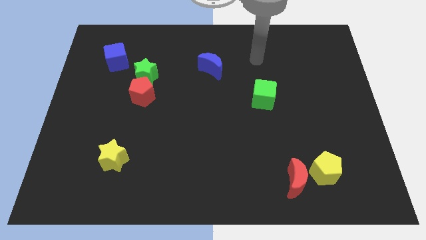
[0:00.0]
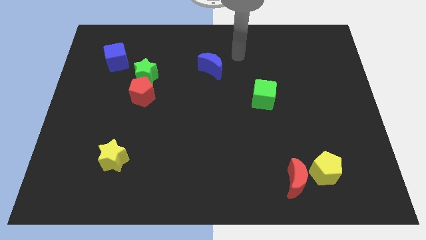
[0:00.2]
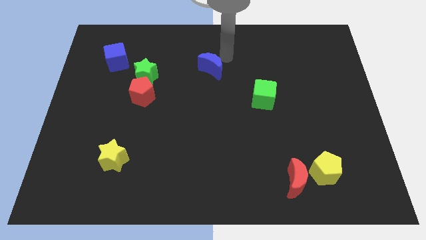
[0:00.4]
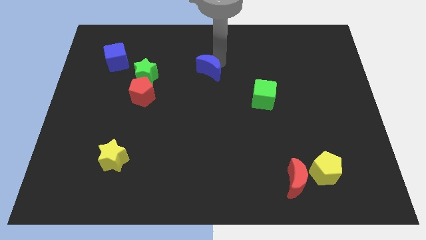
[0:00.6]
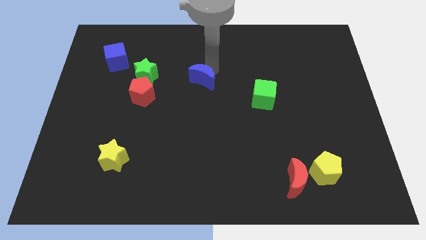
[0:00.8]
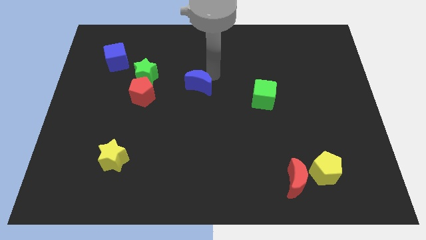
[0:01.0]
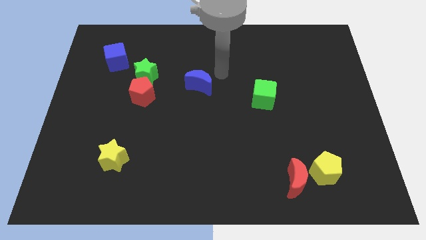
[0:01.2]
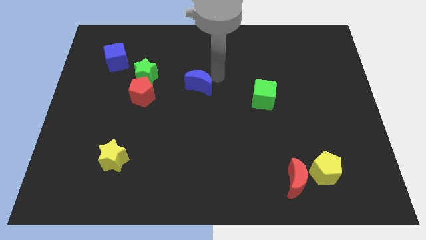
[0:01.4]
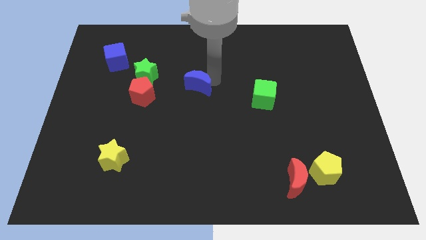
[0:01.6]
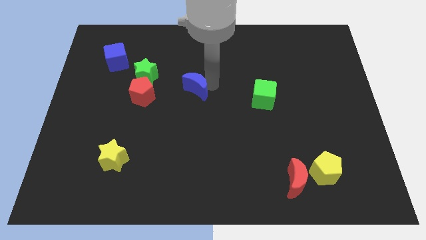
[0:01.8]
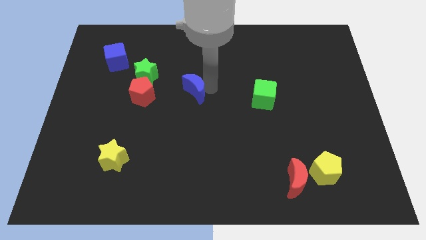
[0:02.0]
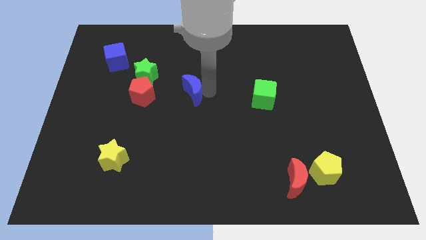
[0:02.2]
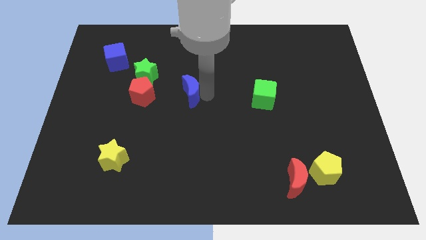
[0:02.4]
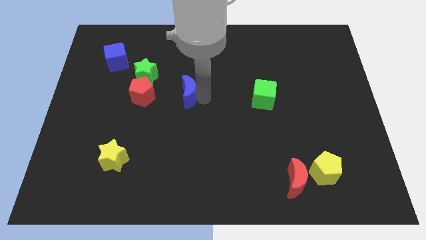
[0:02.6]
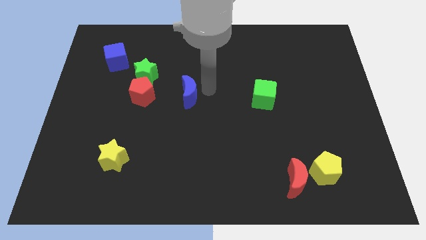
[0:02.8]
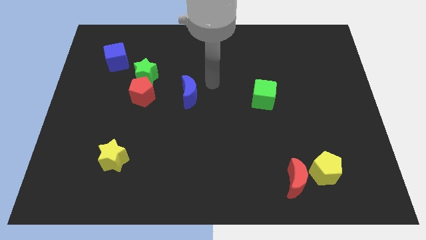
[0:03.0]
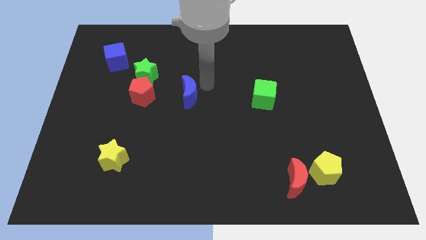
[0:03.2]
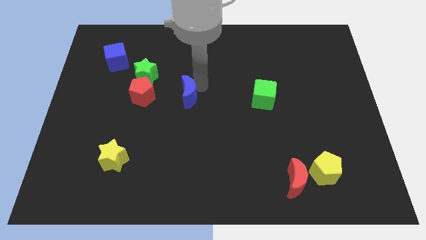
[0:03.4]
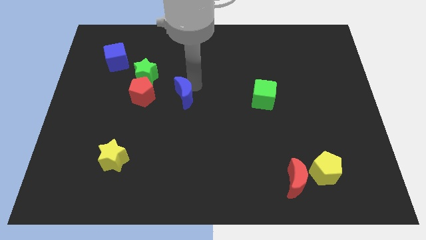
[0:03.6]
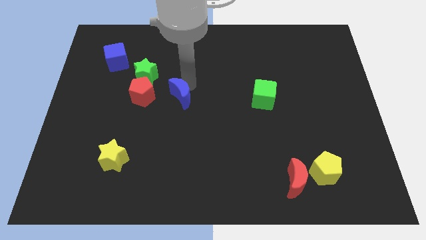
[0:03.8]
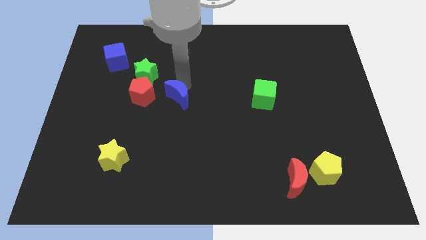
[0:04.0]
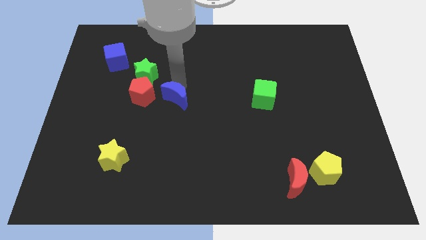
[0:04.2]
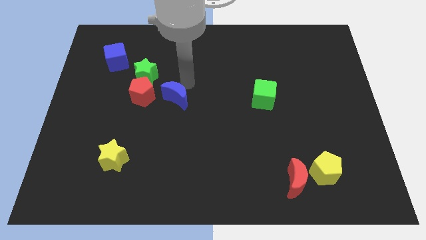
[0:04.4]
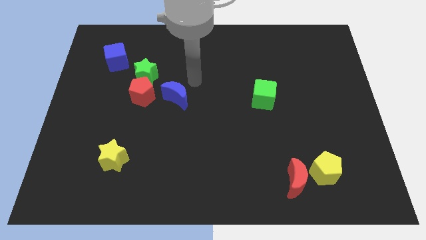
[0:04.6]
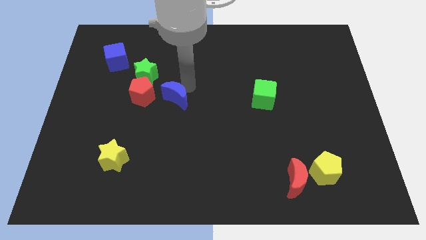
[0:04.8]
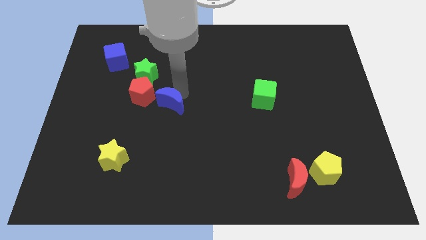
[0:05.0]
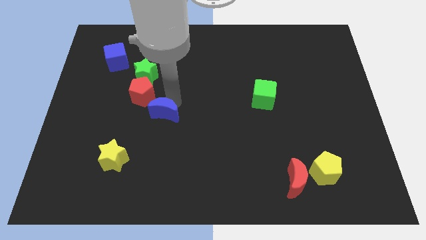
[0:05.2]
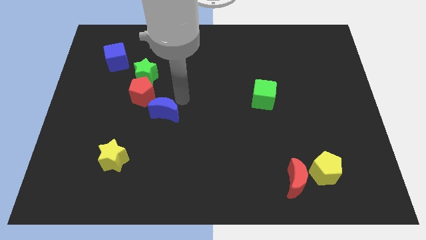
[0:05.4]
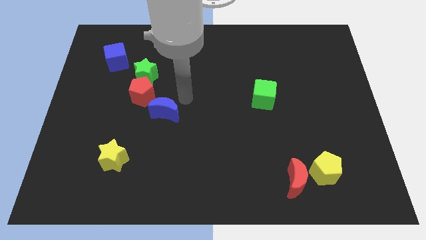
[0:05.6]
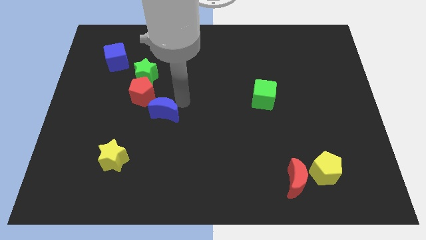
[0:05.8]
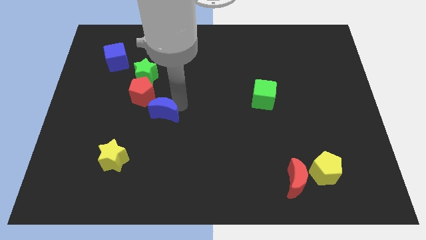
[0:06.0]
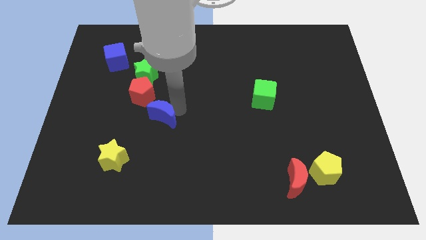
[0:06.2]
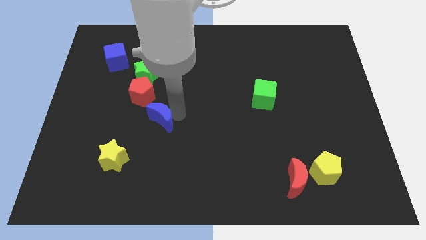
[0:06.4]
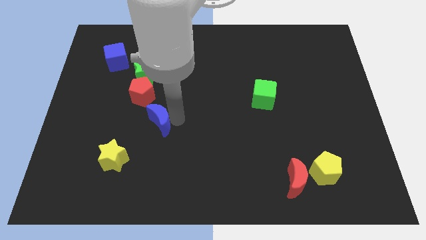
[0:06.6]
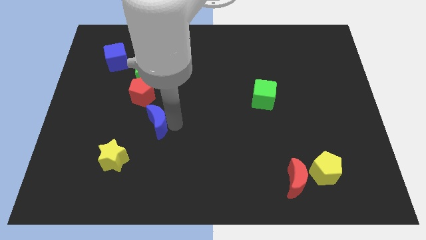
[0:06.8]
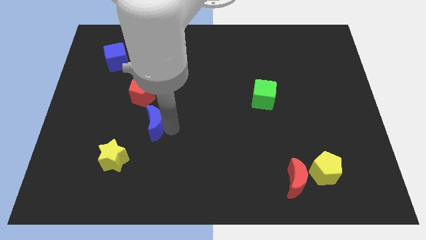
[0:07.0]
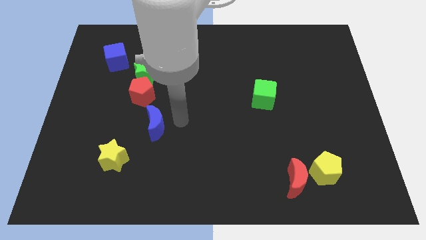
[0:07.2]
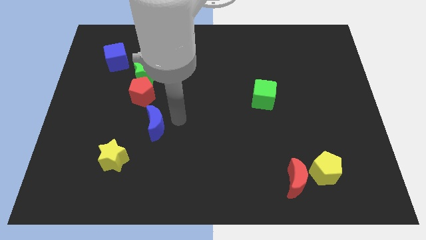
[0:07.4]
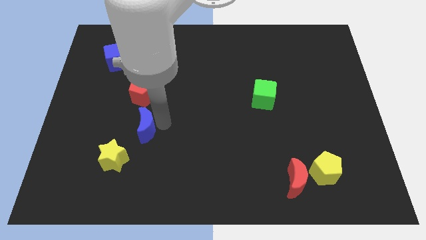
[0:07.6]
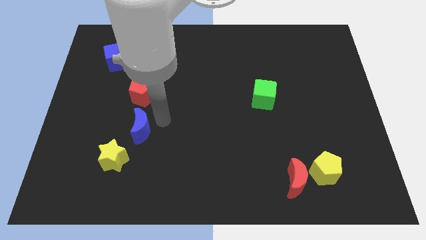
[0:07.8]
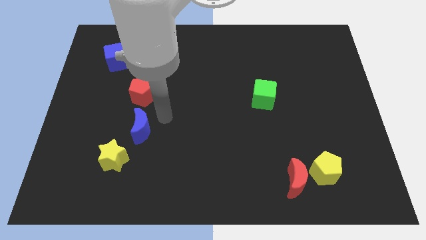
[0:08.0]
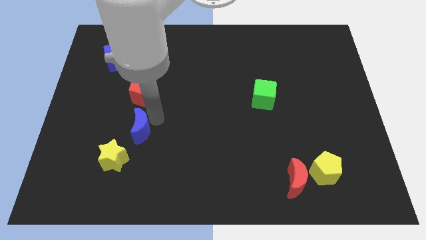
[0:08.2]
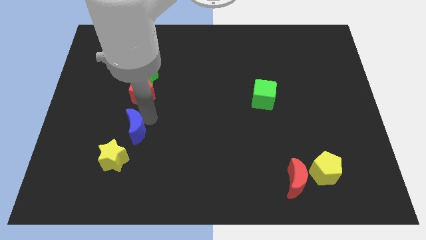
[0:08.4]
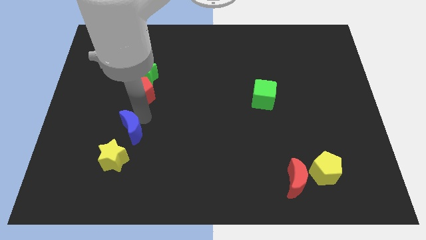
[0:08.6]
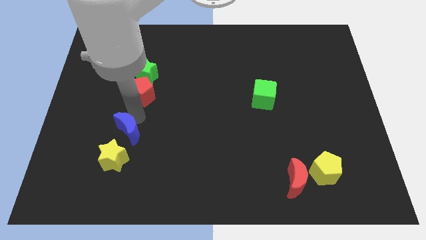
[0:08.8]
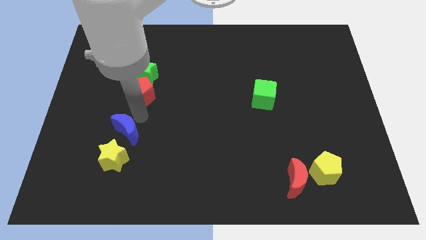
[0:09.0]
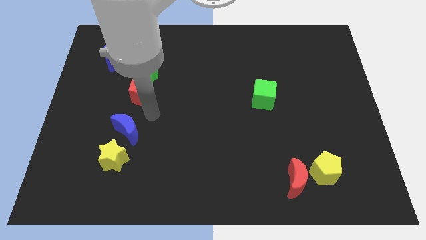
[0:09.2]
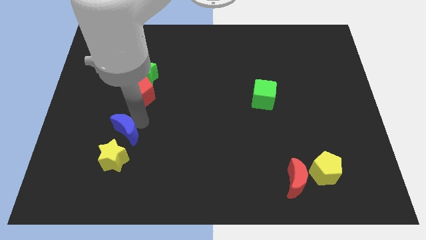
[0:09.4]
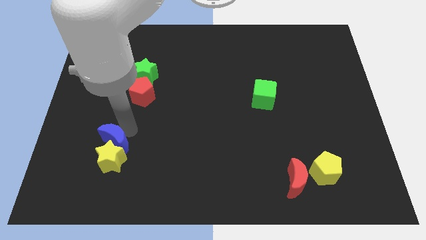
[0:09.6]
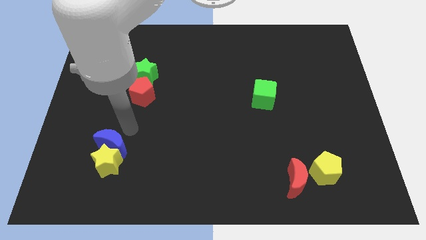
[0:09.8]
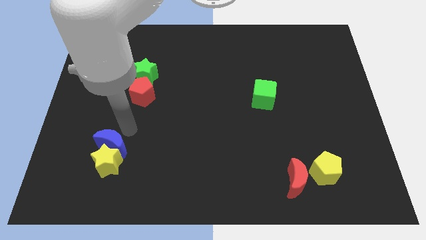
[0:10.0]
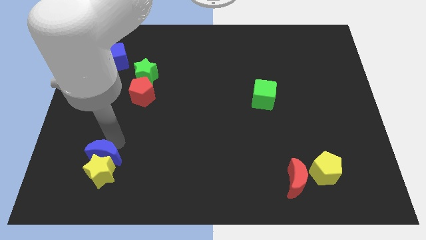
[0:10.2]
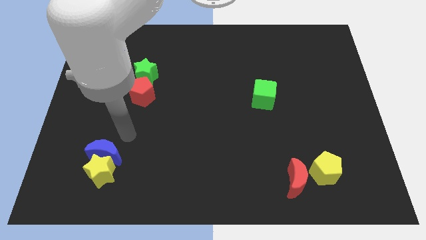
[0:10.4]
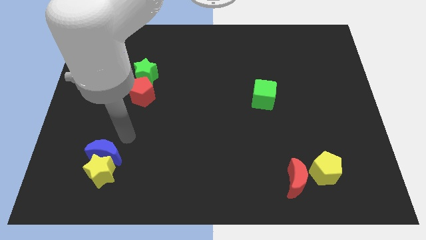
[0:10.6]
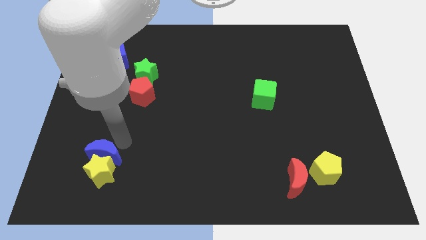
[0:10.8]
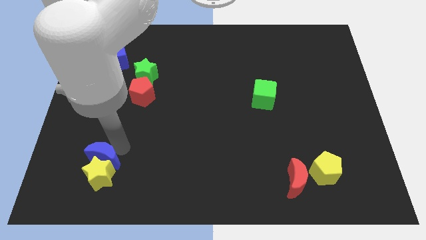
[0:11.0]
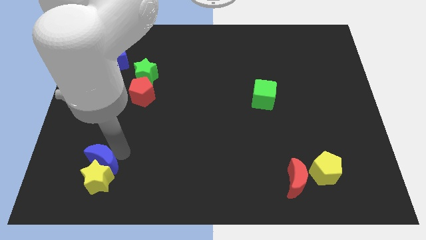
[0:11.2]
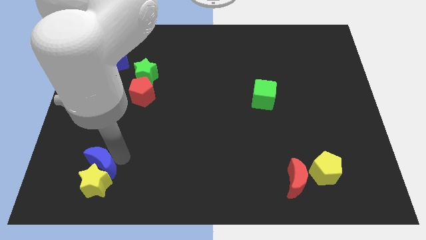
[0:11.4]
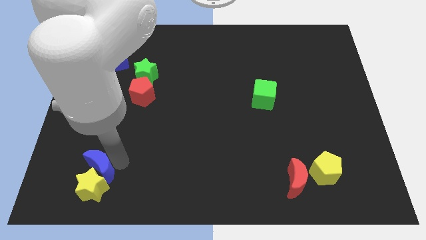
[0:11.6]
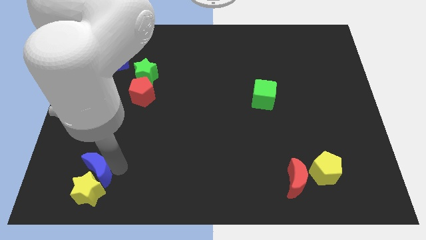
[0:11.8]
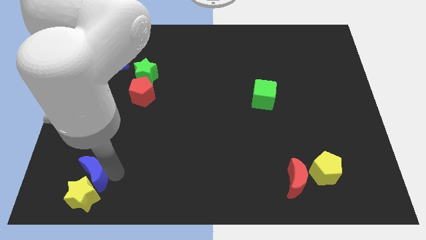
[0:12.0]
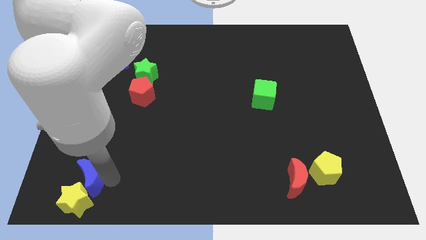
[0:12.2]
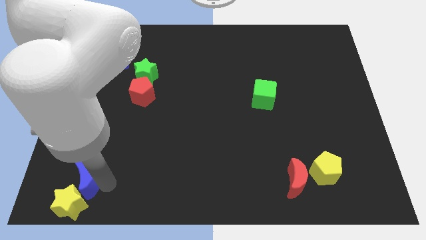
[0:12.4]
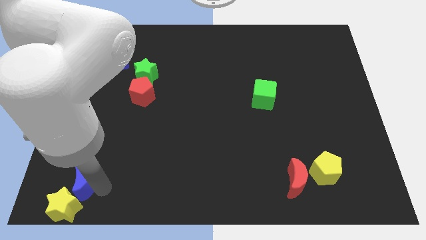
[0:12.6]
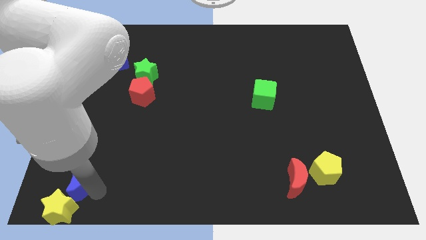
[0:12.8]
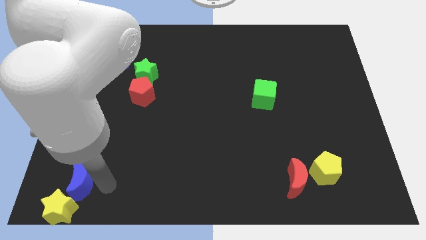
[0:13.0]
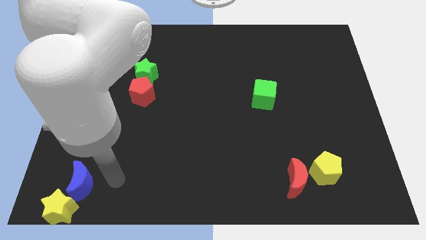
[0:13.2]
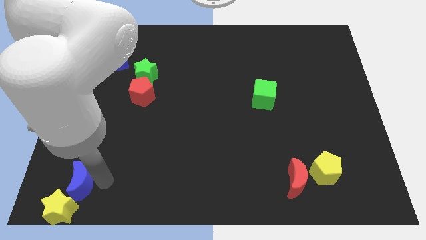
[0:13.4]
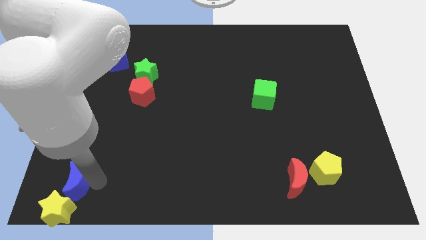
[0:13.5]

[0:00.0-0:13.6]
put the blue moon to the bottom left of the board
